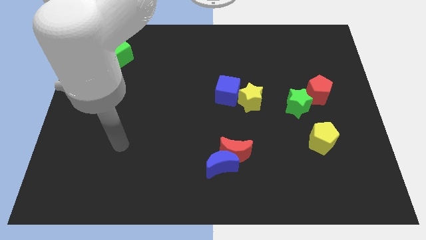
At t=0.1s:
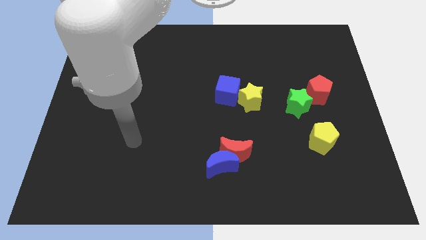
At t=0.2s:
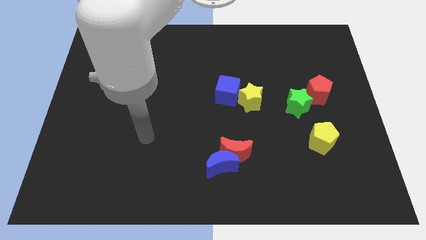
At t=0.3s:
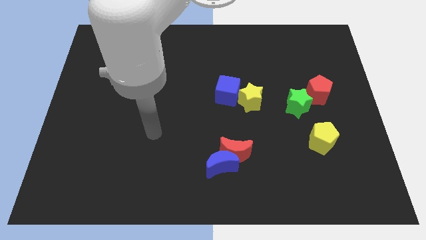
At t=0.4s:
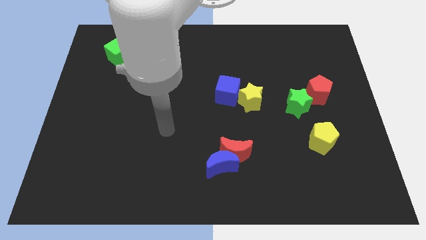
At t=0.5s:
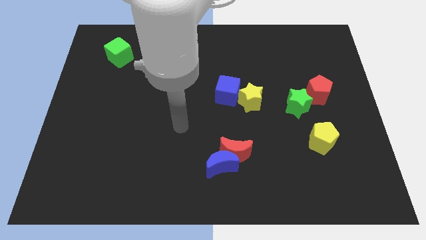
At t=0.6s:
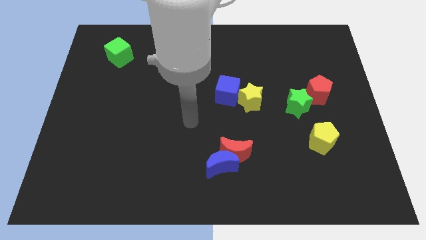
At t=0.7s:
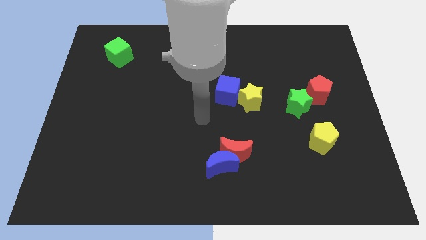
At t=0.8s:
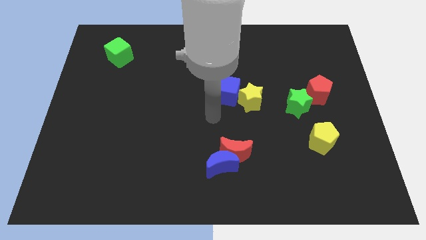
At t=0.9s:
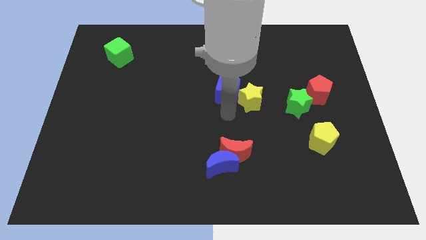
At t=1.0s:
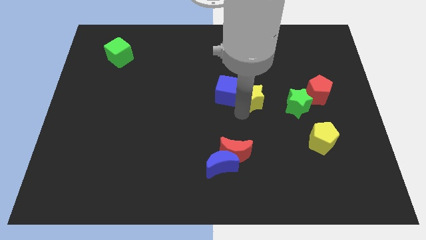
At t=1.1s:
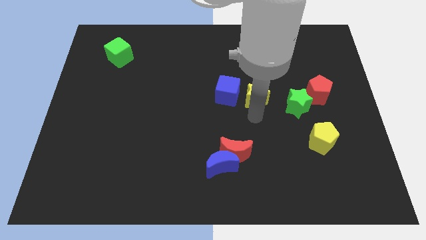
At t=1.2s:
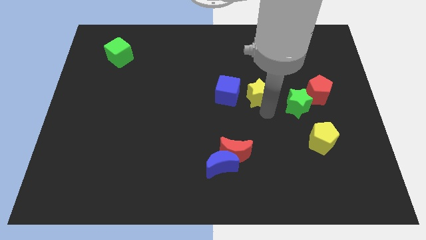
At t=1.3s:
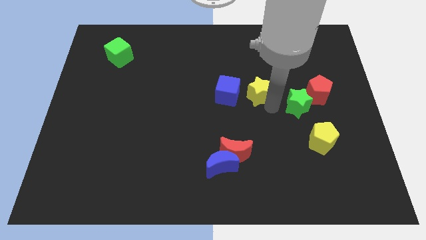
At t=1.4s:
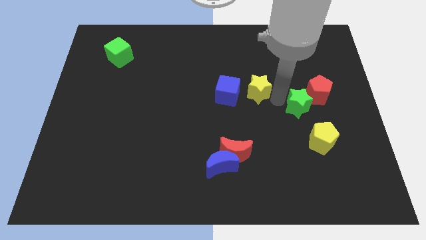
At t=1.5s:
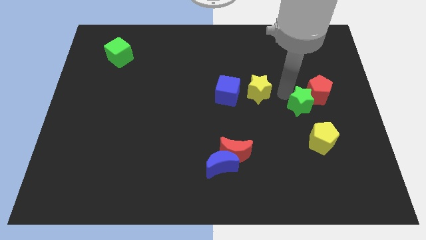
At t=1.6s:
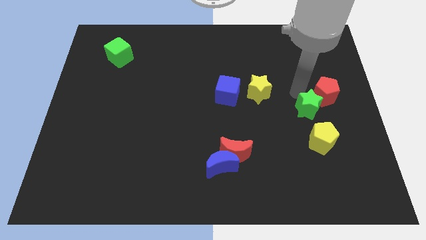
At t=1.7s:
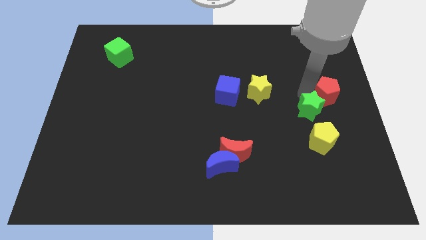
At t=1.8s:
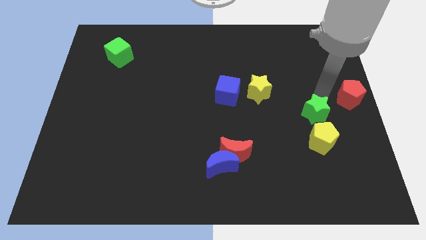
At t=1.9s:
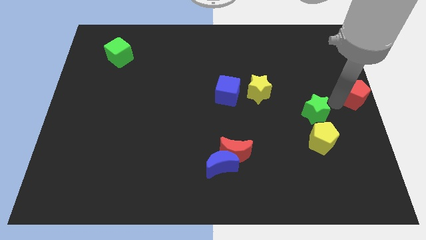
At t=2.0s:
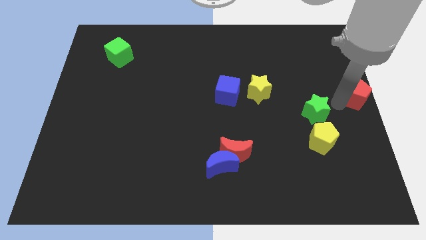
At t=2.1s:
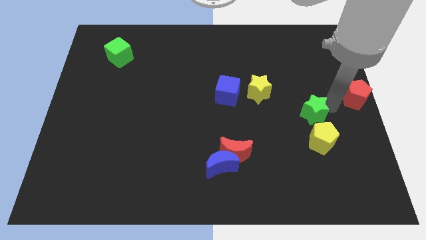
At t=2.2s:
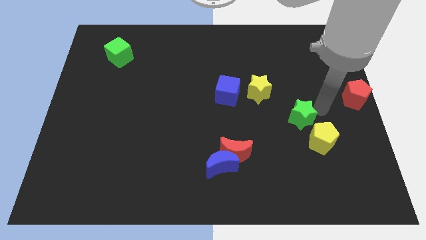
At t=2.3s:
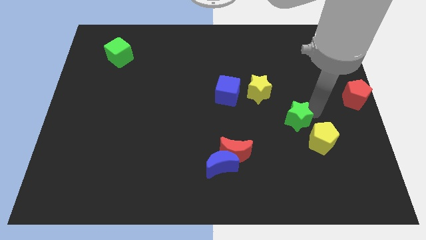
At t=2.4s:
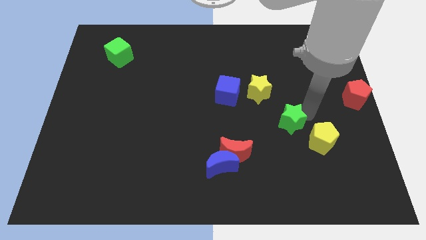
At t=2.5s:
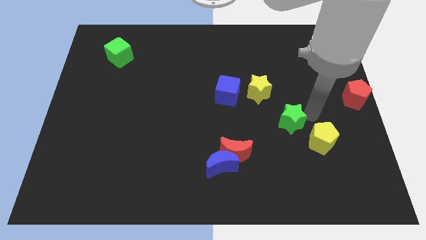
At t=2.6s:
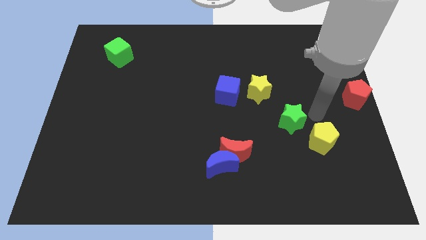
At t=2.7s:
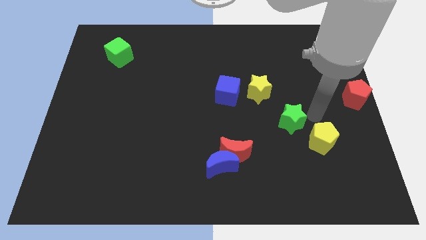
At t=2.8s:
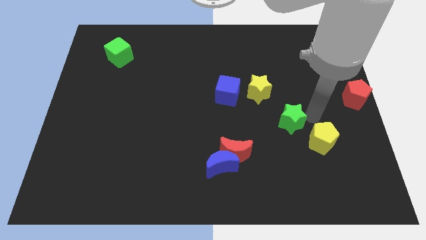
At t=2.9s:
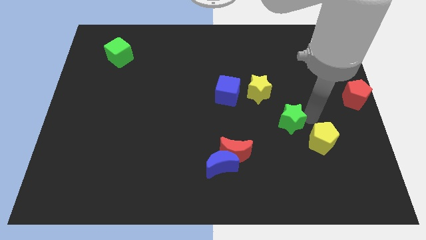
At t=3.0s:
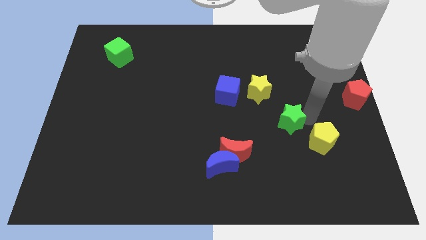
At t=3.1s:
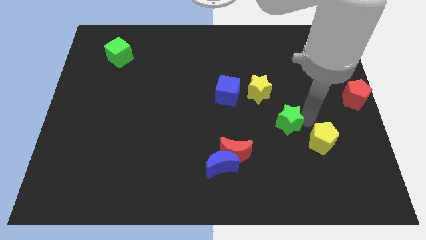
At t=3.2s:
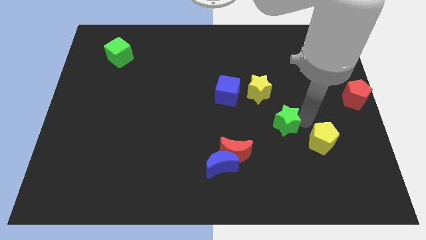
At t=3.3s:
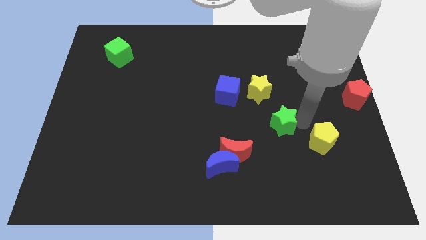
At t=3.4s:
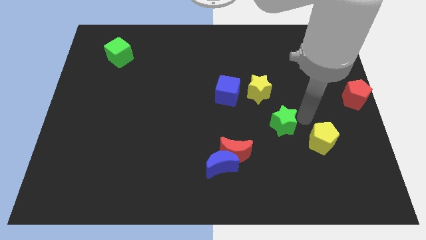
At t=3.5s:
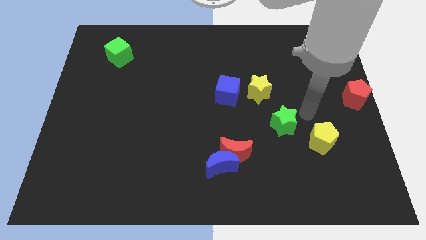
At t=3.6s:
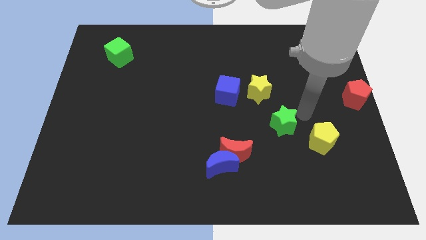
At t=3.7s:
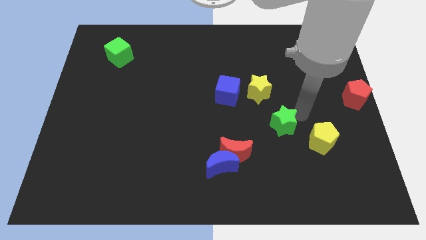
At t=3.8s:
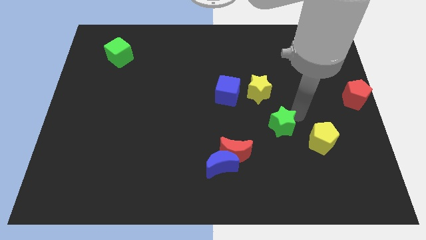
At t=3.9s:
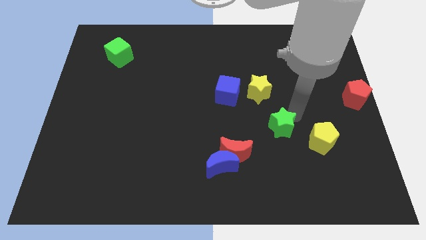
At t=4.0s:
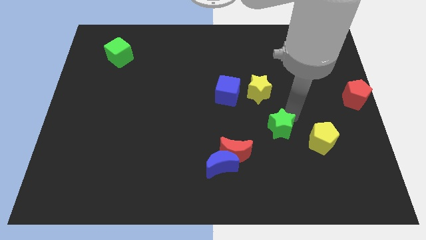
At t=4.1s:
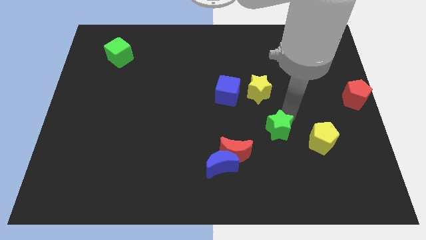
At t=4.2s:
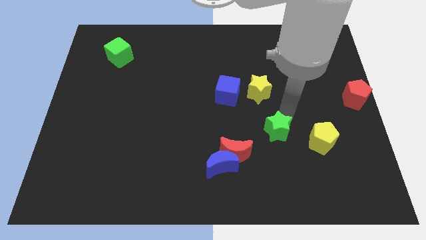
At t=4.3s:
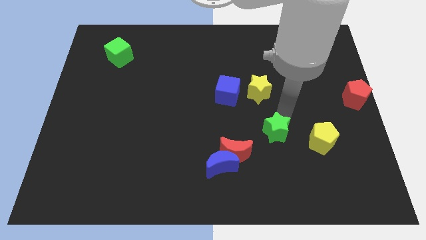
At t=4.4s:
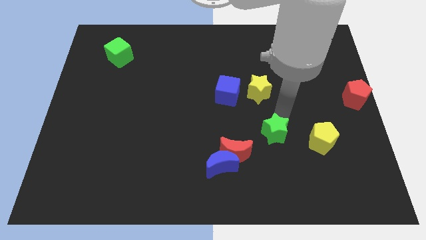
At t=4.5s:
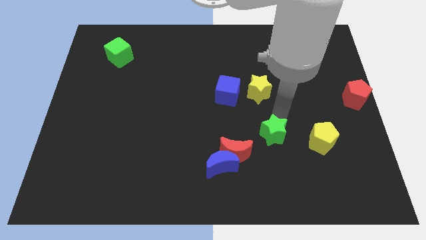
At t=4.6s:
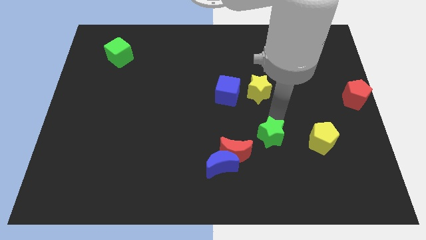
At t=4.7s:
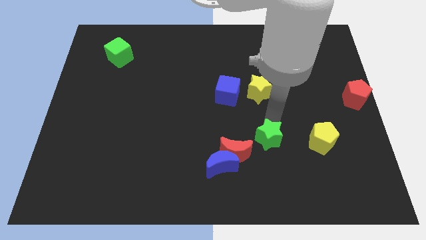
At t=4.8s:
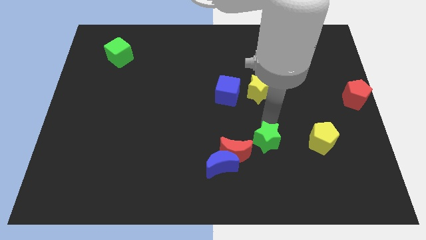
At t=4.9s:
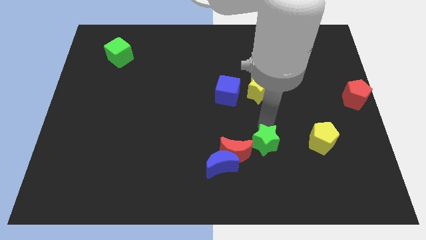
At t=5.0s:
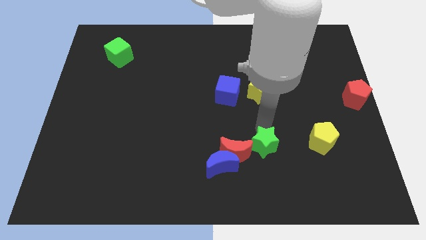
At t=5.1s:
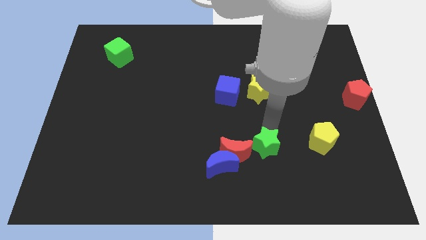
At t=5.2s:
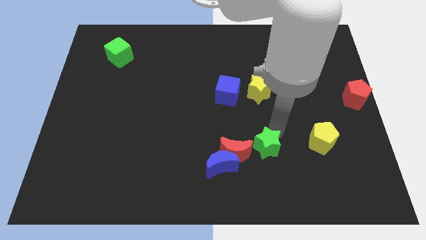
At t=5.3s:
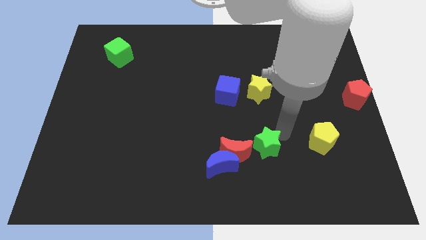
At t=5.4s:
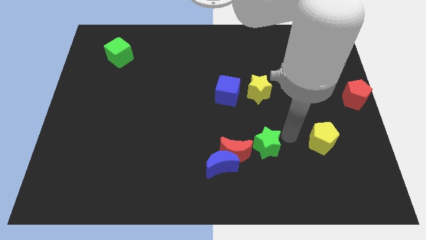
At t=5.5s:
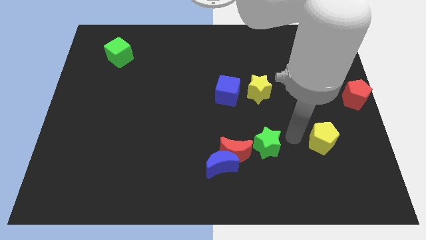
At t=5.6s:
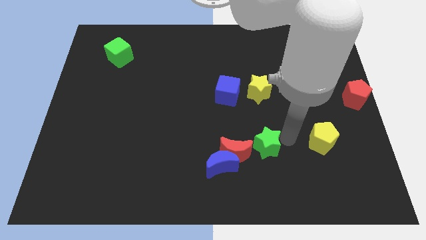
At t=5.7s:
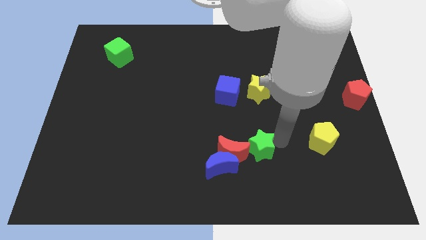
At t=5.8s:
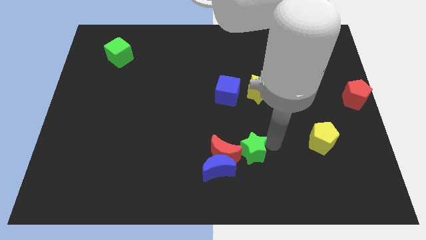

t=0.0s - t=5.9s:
slide the green star next to the red moon

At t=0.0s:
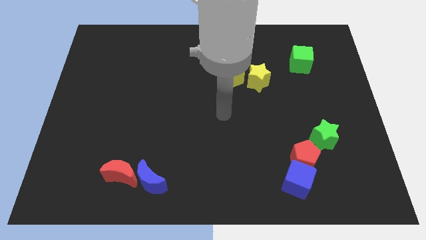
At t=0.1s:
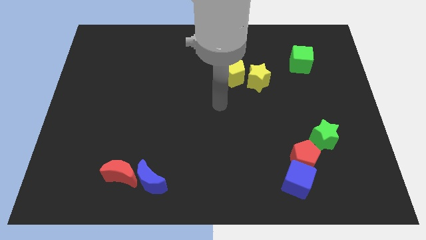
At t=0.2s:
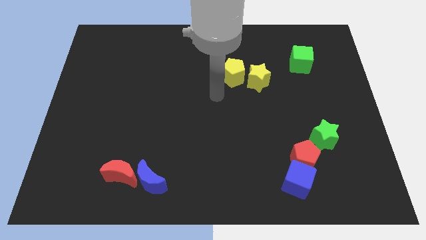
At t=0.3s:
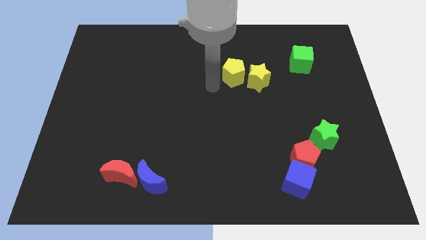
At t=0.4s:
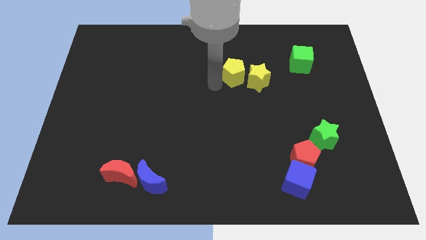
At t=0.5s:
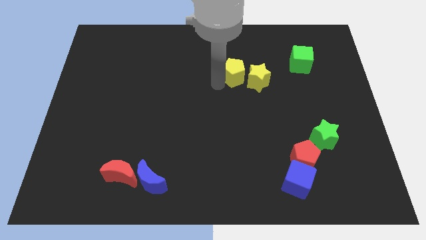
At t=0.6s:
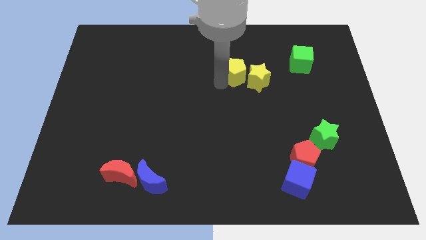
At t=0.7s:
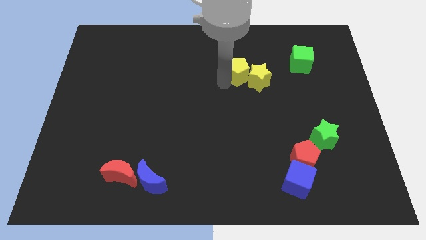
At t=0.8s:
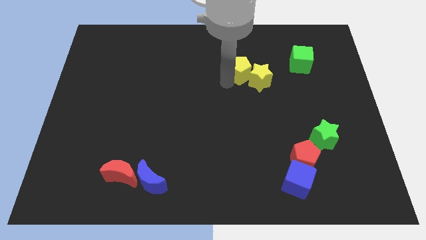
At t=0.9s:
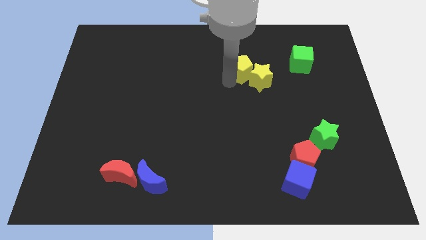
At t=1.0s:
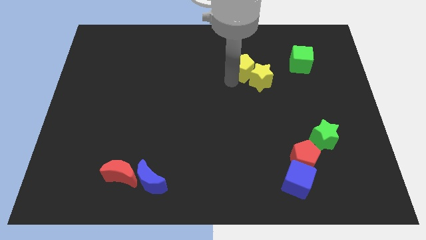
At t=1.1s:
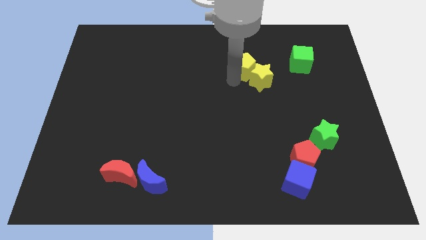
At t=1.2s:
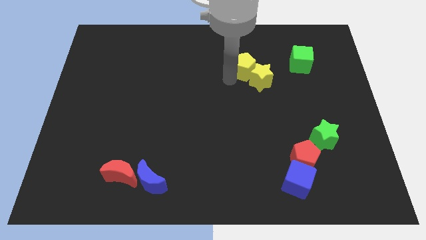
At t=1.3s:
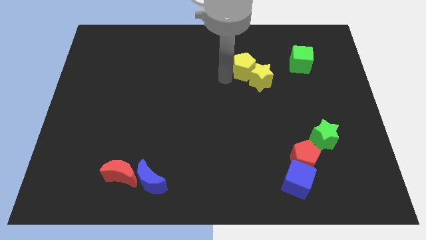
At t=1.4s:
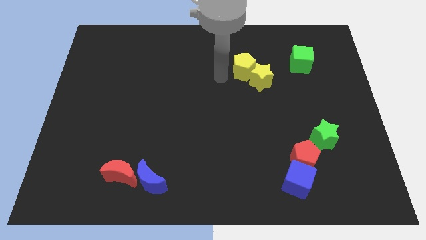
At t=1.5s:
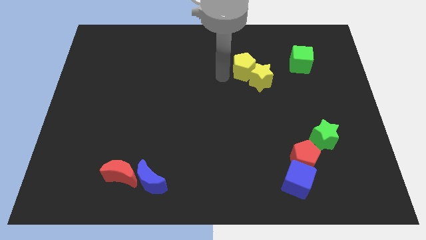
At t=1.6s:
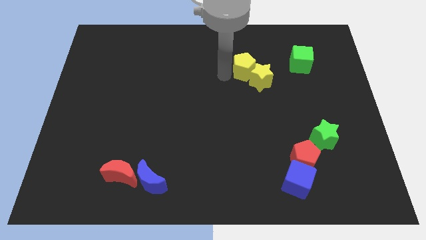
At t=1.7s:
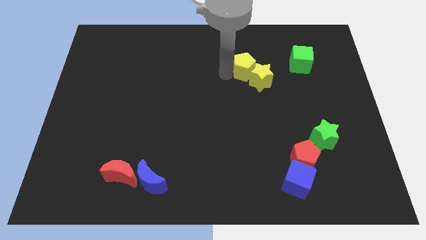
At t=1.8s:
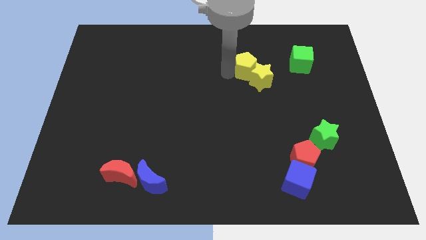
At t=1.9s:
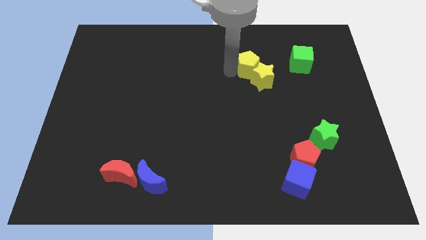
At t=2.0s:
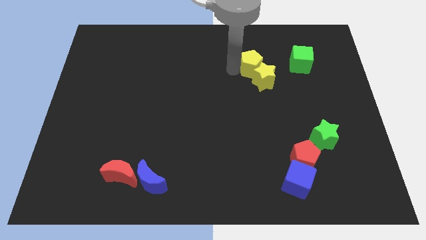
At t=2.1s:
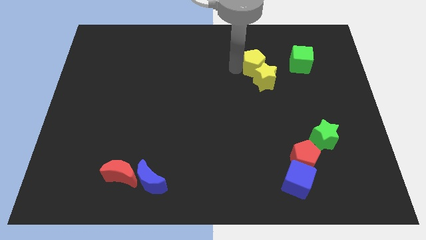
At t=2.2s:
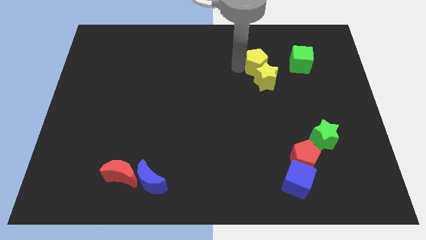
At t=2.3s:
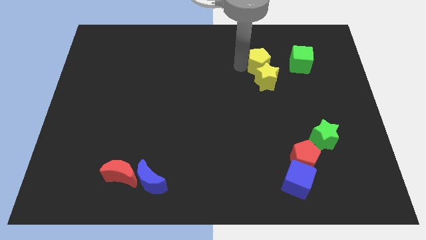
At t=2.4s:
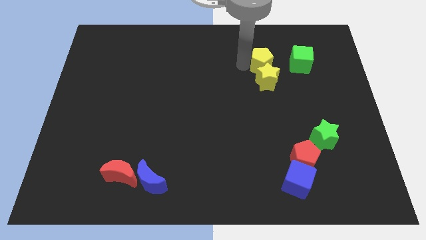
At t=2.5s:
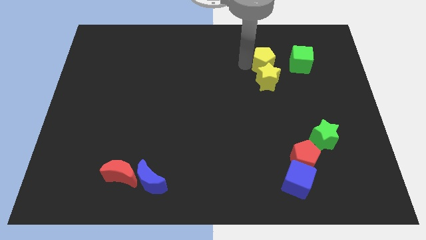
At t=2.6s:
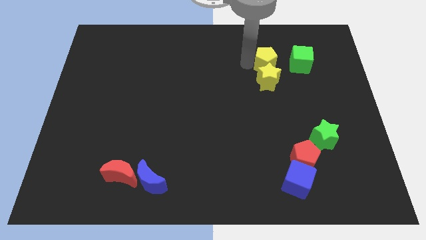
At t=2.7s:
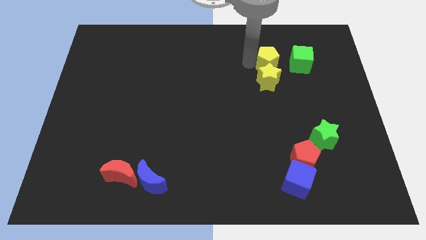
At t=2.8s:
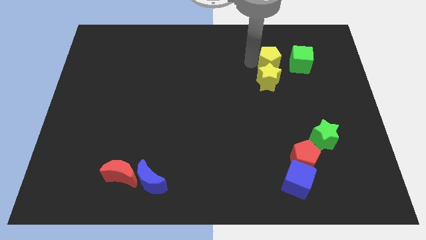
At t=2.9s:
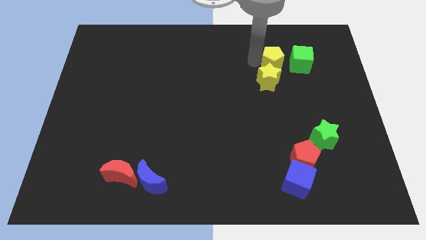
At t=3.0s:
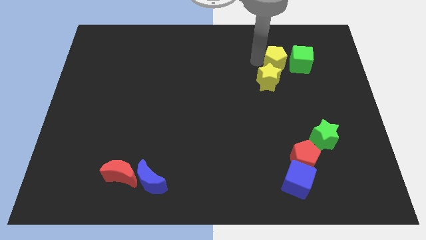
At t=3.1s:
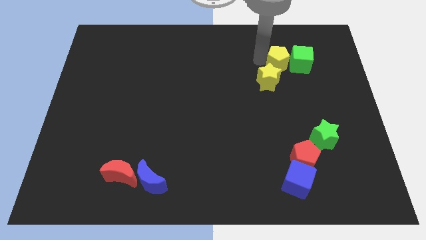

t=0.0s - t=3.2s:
push the yellow pentagon close to the green cube
